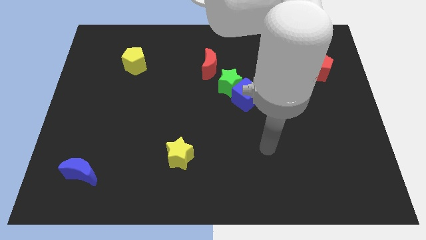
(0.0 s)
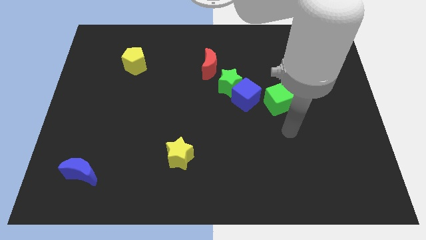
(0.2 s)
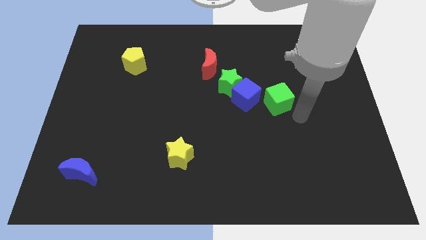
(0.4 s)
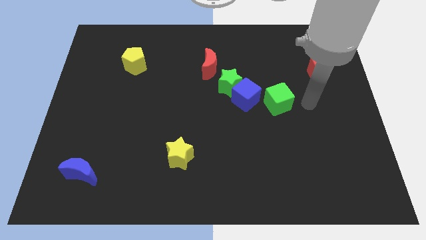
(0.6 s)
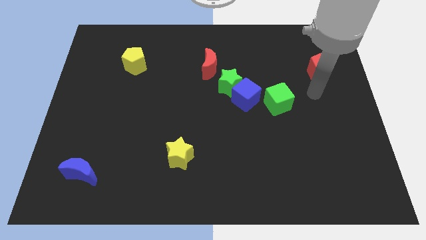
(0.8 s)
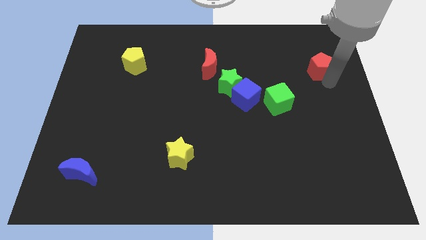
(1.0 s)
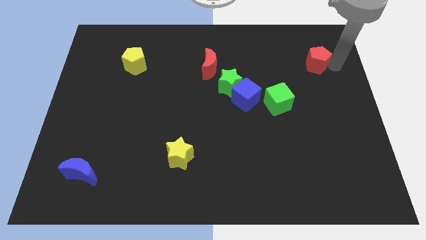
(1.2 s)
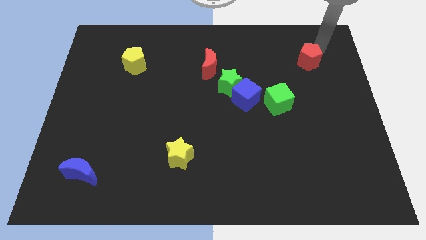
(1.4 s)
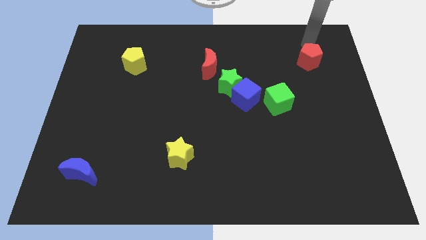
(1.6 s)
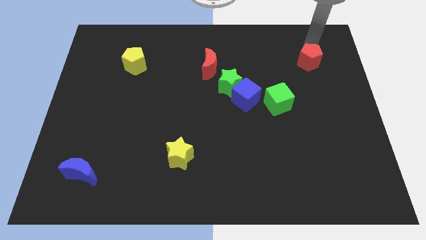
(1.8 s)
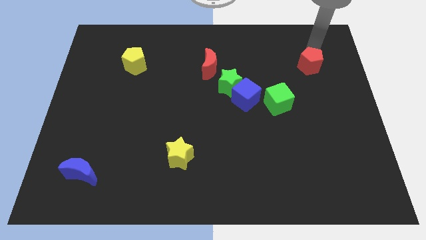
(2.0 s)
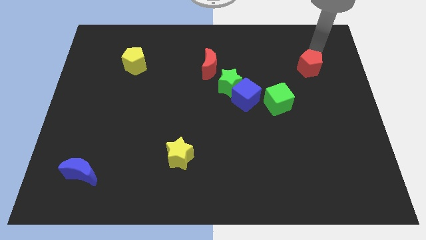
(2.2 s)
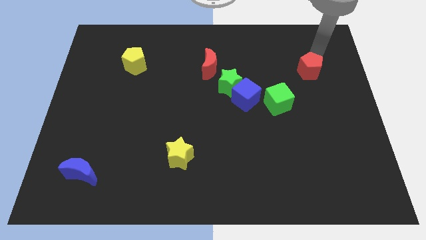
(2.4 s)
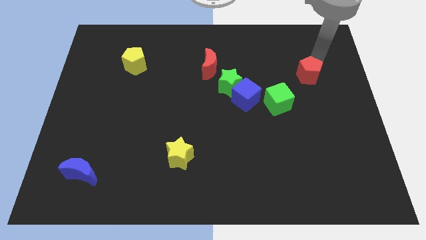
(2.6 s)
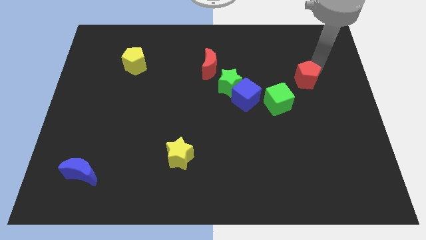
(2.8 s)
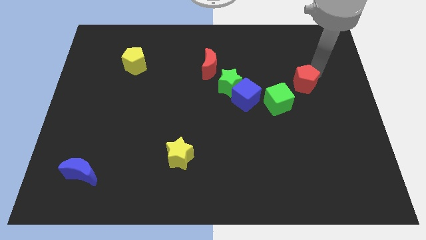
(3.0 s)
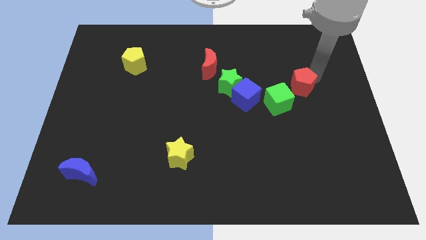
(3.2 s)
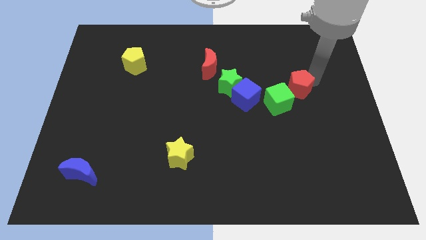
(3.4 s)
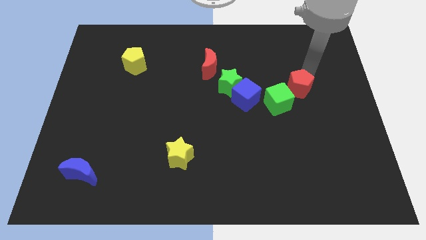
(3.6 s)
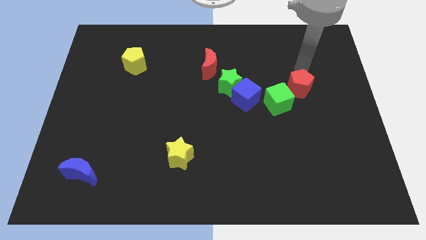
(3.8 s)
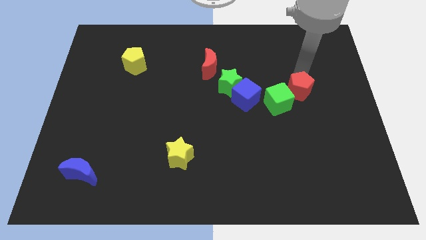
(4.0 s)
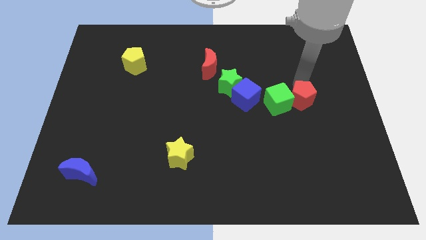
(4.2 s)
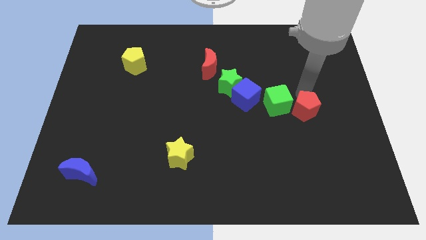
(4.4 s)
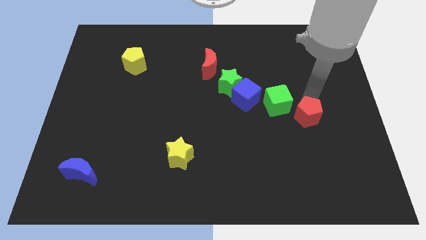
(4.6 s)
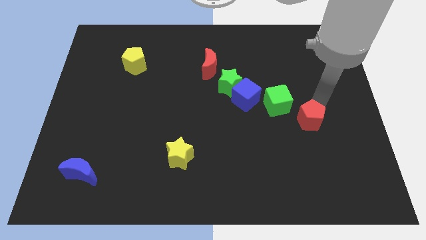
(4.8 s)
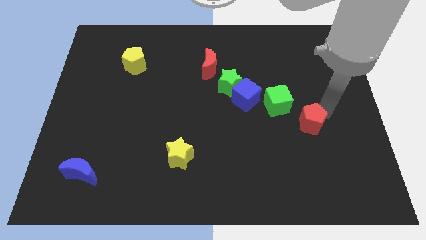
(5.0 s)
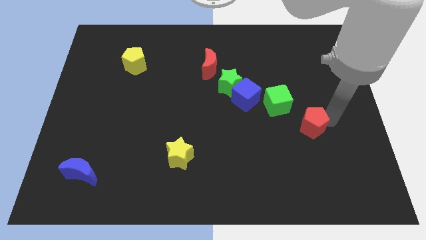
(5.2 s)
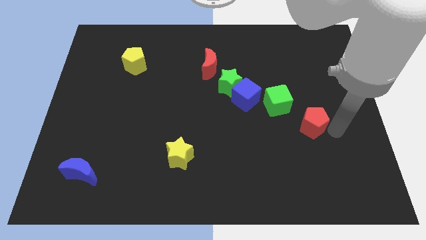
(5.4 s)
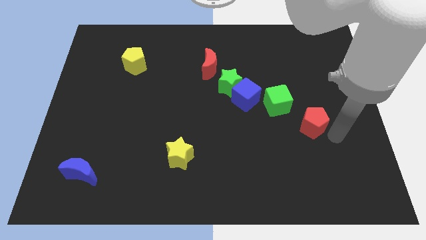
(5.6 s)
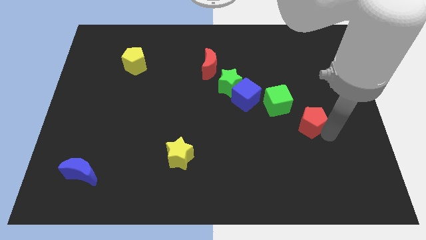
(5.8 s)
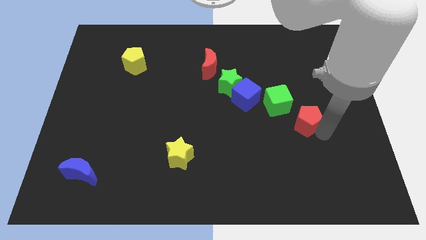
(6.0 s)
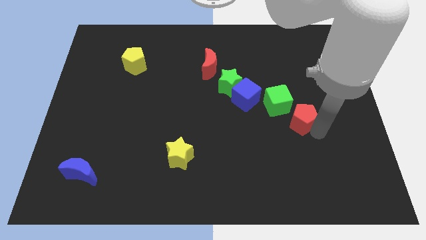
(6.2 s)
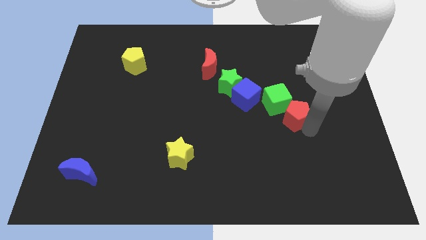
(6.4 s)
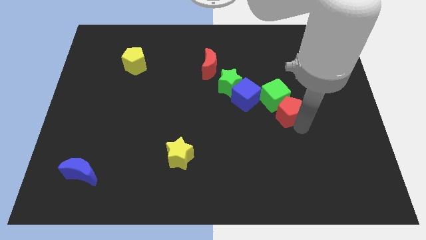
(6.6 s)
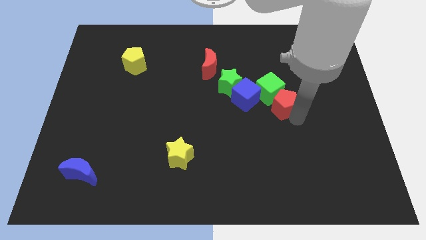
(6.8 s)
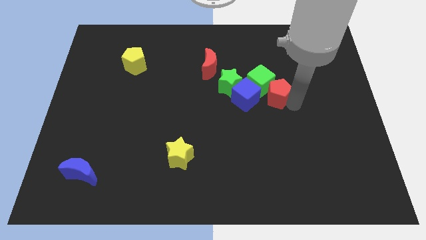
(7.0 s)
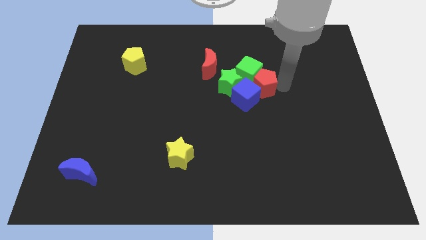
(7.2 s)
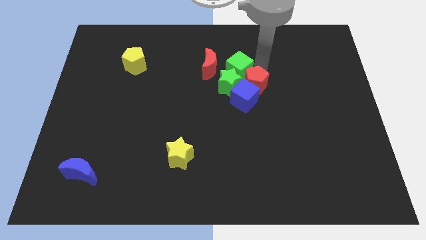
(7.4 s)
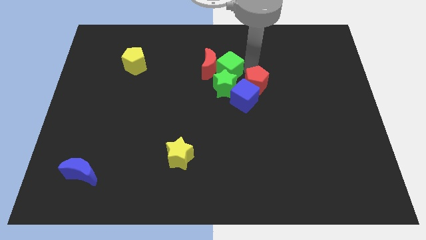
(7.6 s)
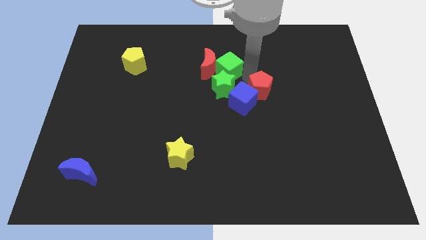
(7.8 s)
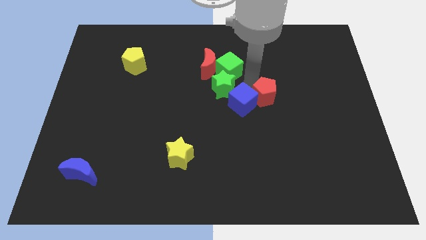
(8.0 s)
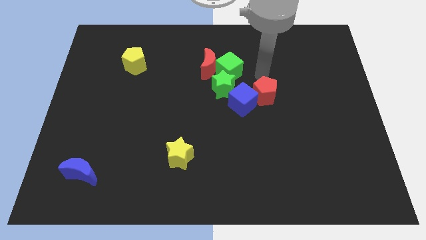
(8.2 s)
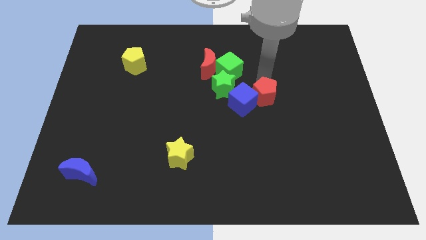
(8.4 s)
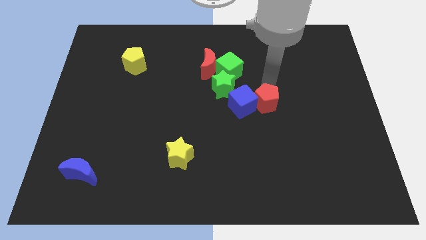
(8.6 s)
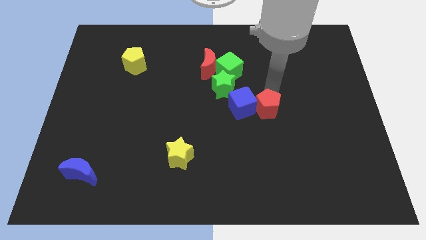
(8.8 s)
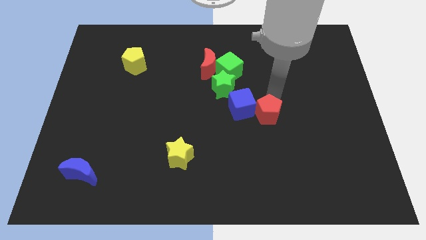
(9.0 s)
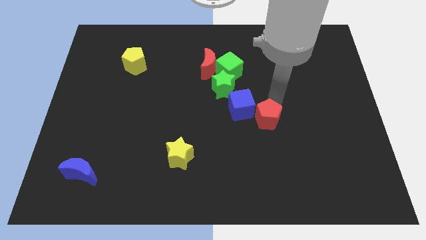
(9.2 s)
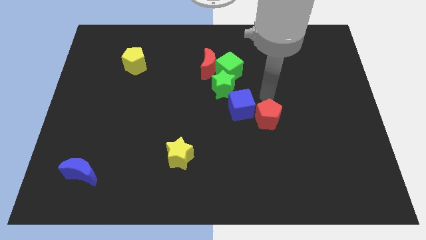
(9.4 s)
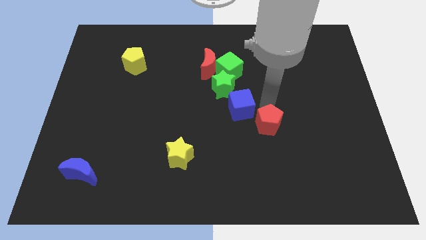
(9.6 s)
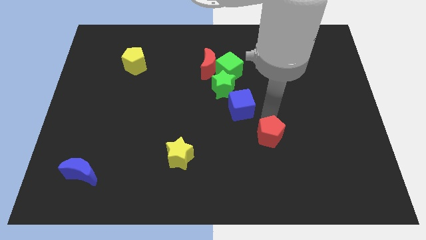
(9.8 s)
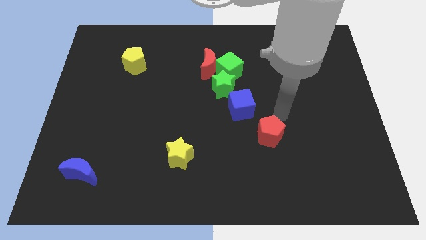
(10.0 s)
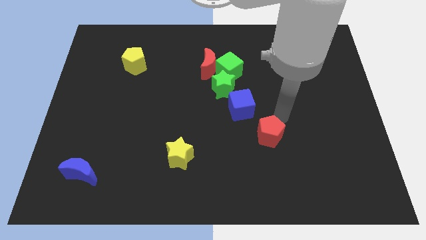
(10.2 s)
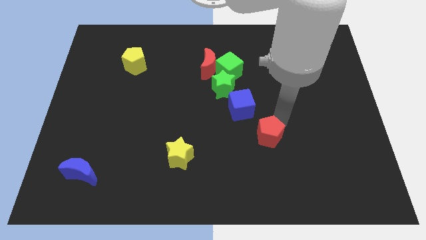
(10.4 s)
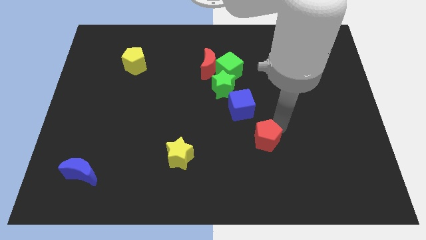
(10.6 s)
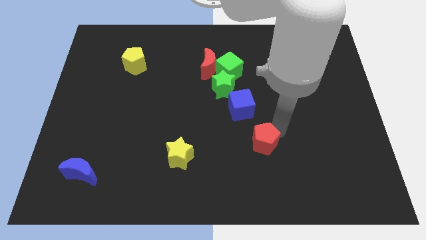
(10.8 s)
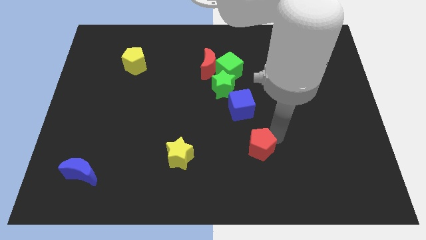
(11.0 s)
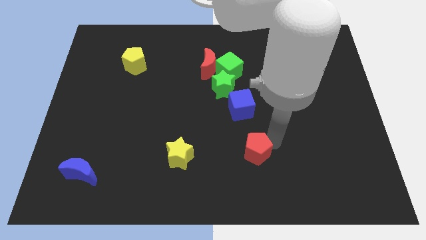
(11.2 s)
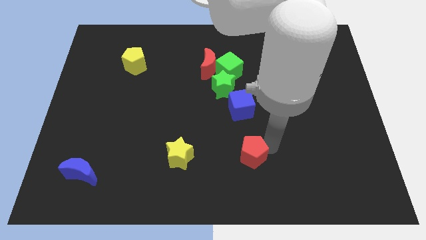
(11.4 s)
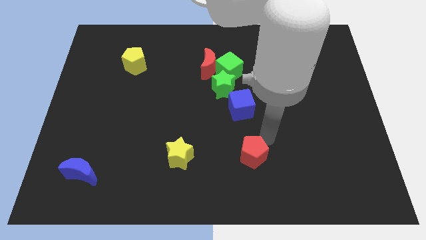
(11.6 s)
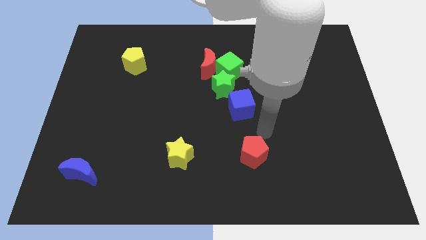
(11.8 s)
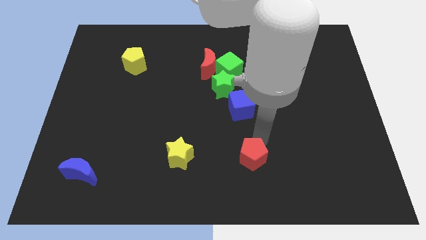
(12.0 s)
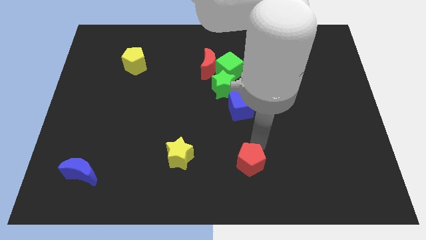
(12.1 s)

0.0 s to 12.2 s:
push the red pentagon to the bottom
